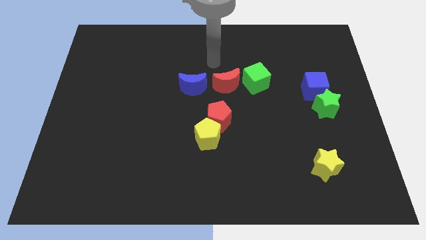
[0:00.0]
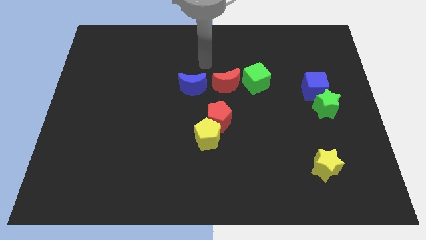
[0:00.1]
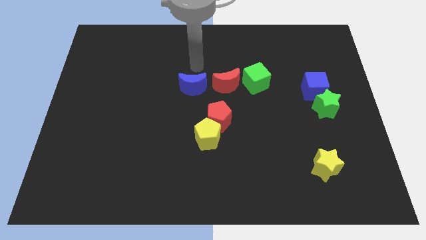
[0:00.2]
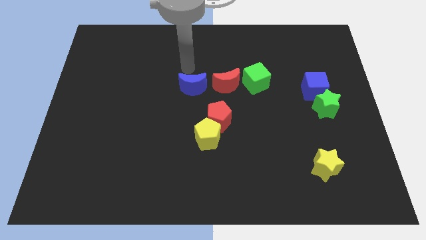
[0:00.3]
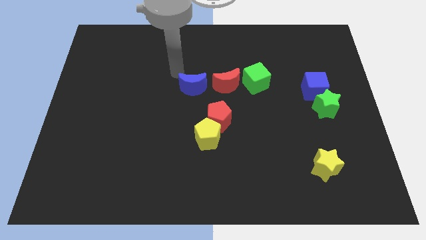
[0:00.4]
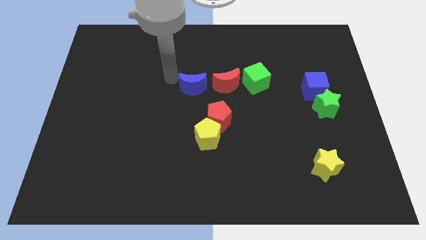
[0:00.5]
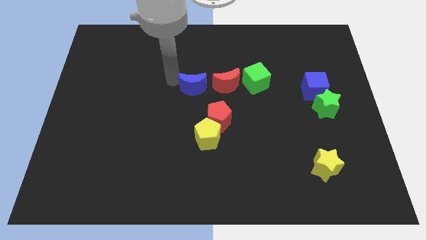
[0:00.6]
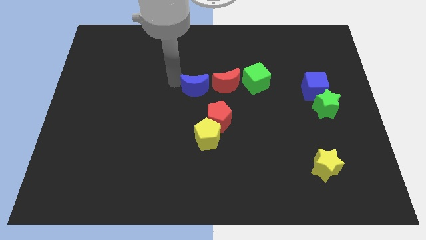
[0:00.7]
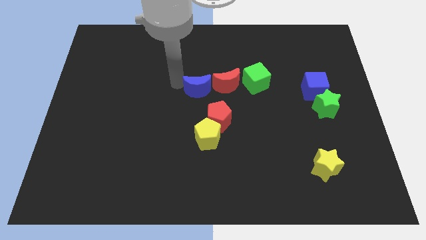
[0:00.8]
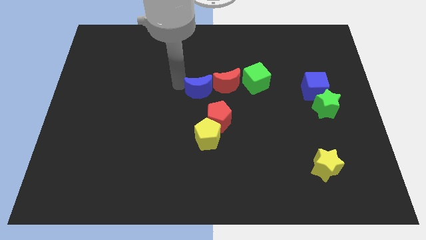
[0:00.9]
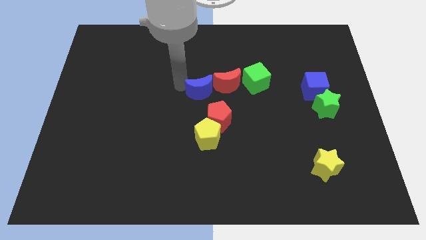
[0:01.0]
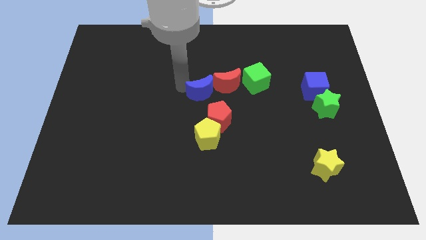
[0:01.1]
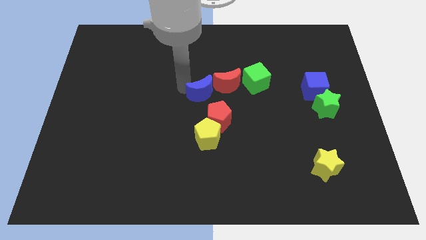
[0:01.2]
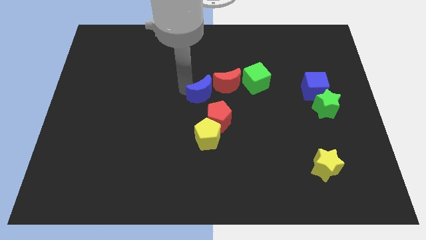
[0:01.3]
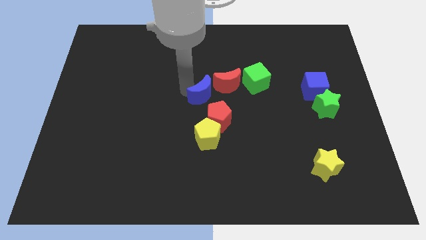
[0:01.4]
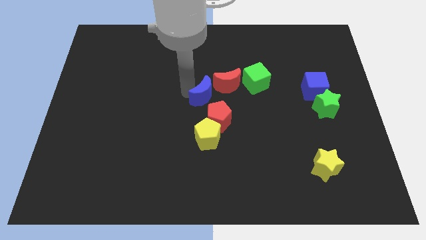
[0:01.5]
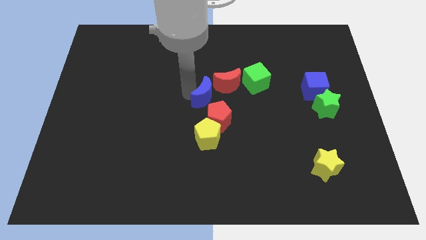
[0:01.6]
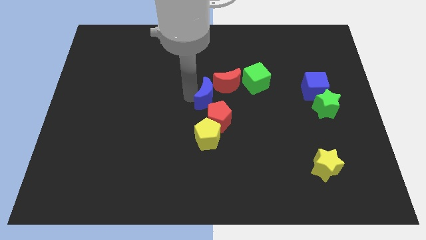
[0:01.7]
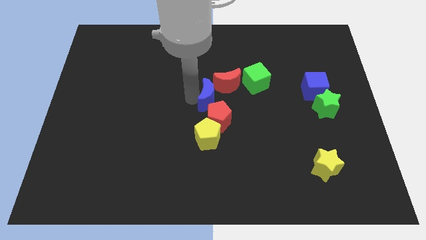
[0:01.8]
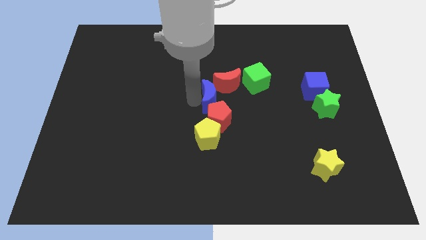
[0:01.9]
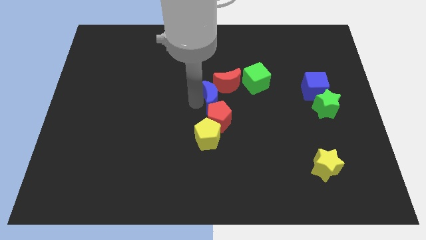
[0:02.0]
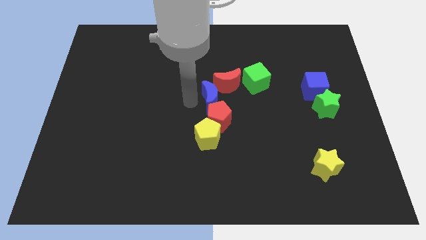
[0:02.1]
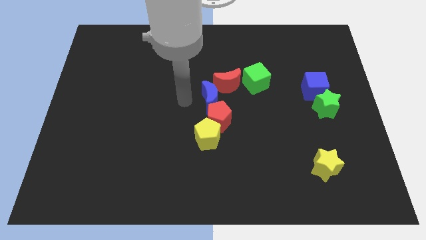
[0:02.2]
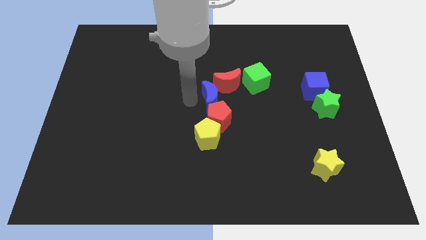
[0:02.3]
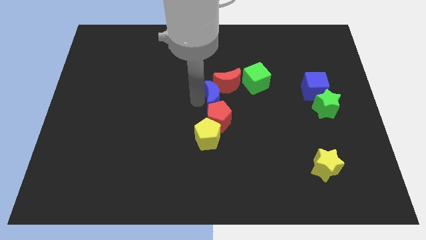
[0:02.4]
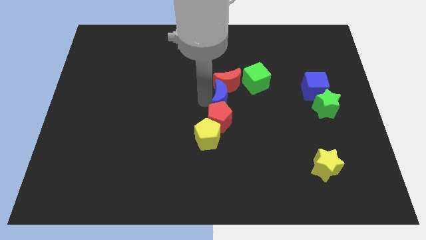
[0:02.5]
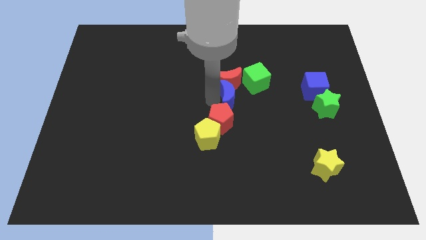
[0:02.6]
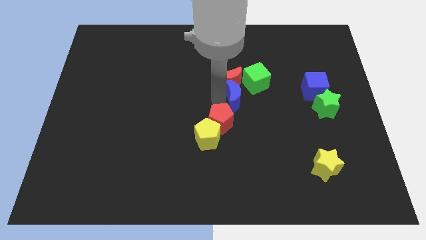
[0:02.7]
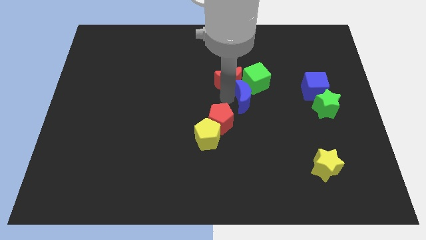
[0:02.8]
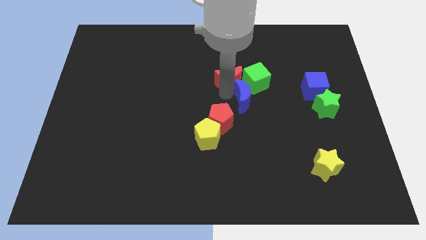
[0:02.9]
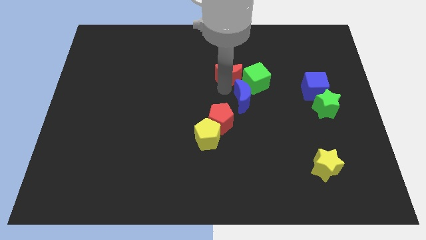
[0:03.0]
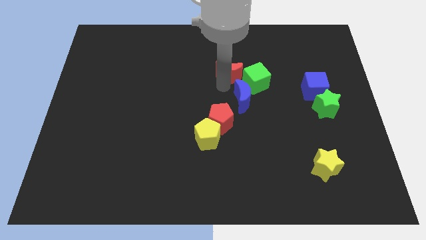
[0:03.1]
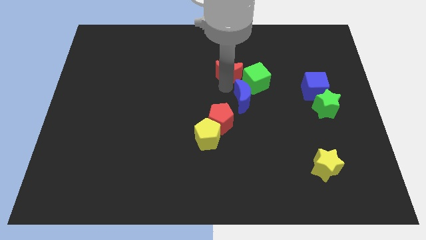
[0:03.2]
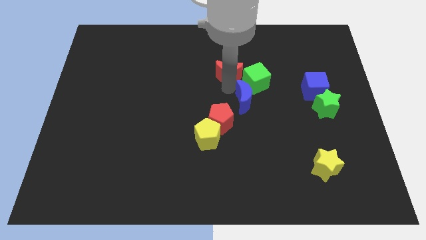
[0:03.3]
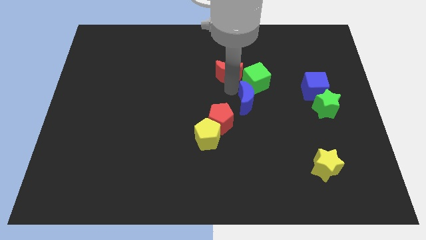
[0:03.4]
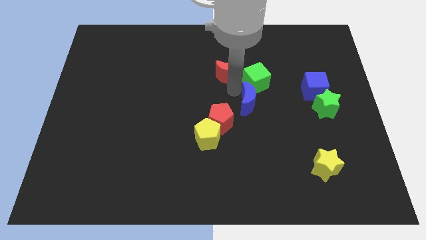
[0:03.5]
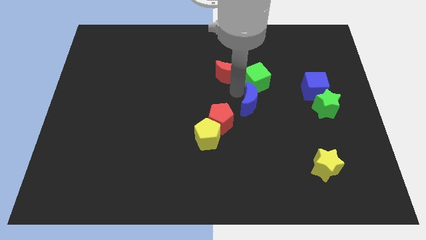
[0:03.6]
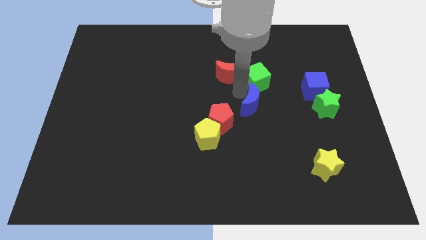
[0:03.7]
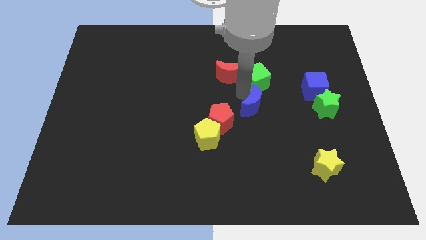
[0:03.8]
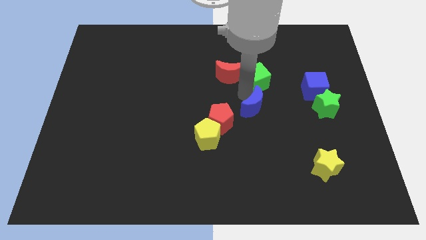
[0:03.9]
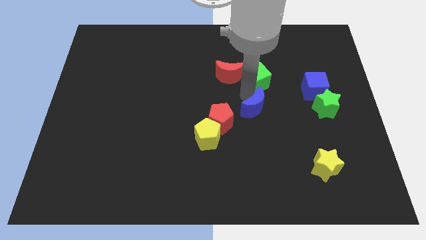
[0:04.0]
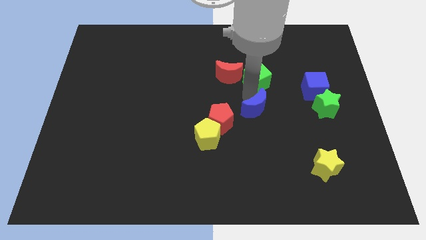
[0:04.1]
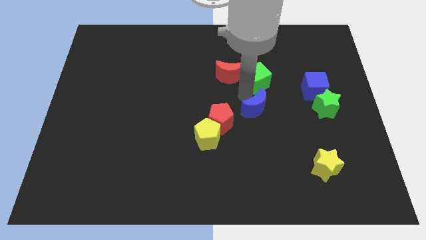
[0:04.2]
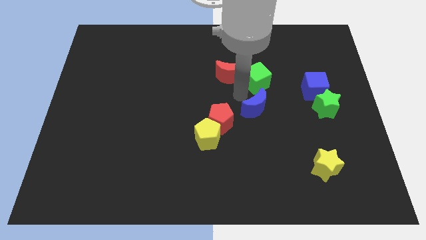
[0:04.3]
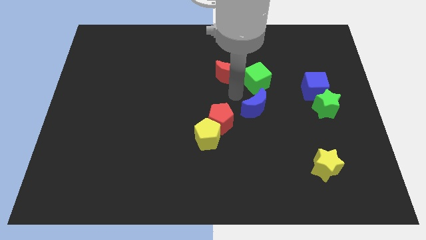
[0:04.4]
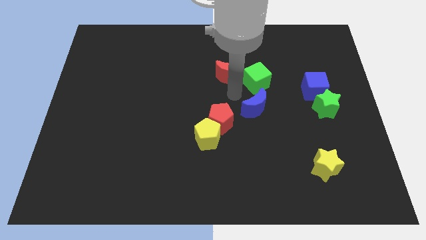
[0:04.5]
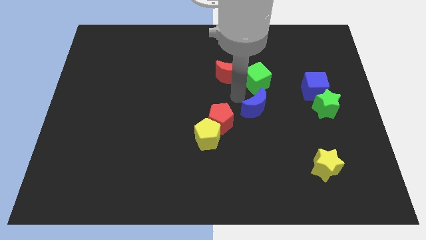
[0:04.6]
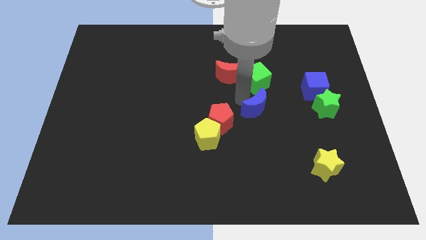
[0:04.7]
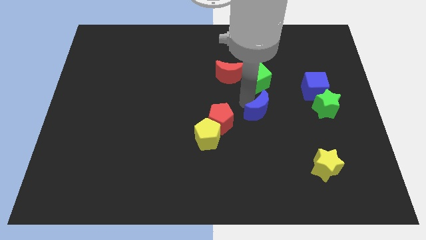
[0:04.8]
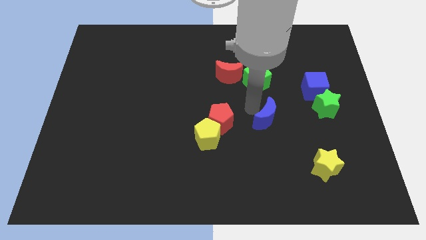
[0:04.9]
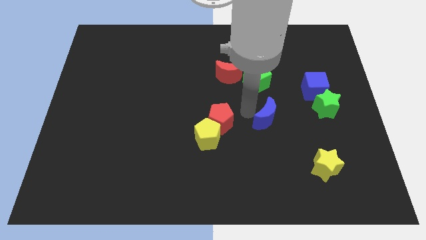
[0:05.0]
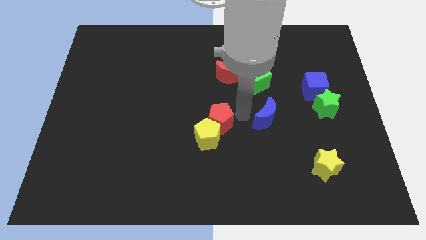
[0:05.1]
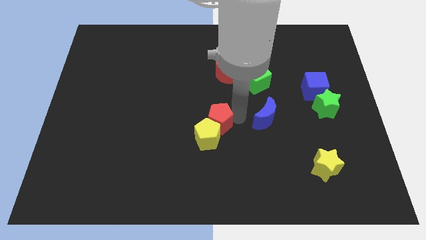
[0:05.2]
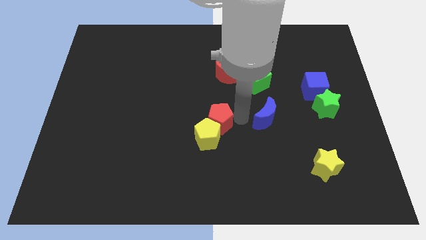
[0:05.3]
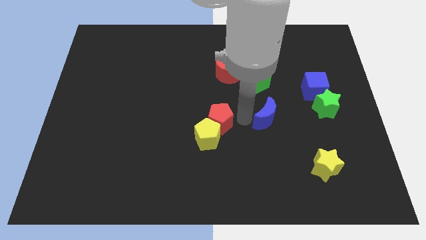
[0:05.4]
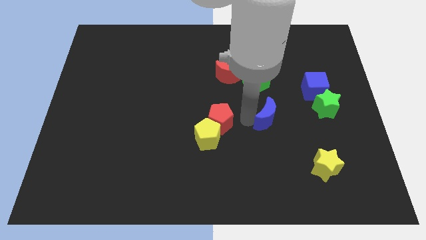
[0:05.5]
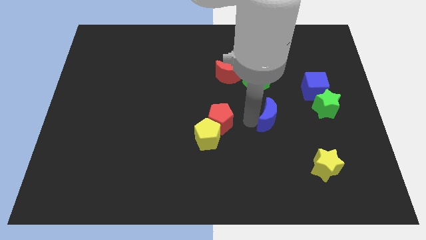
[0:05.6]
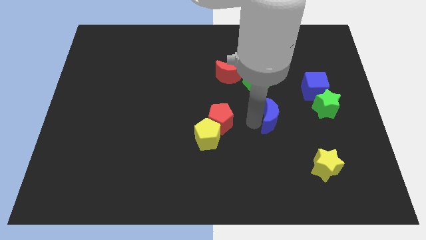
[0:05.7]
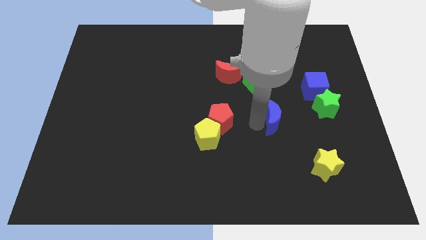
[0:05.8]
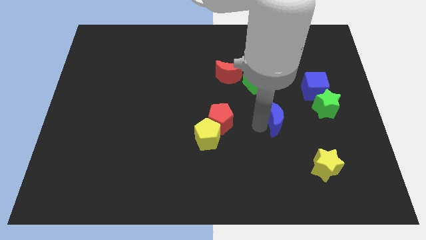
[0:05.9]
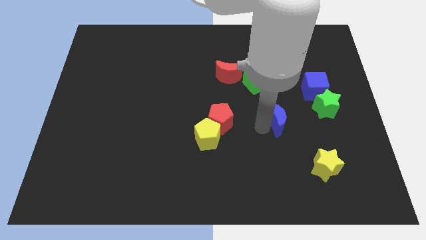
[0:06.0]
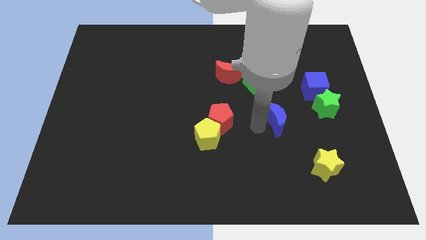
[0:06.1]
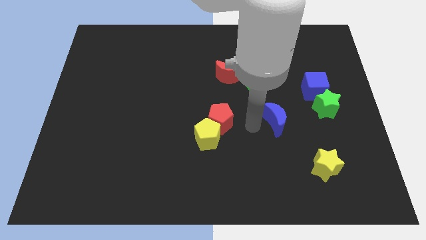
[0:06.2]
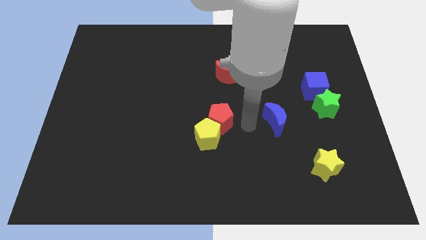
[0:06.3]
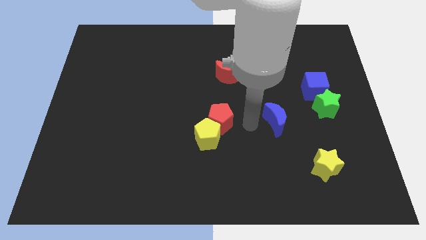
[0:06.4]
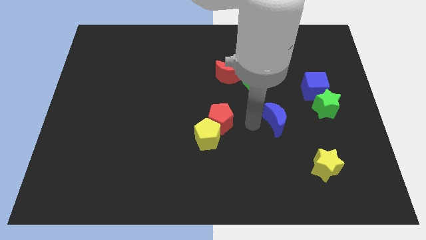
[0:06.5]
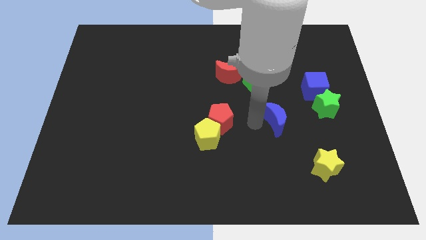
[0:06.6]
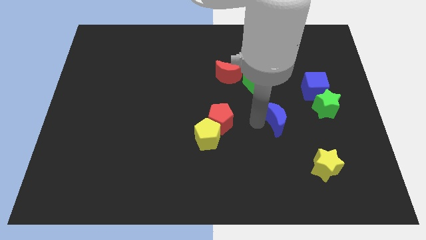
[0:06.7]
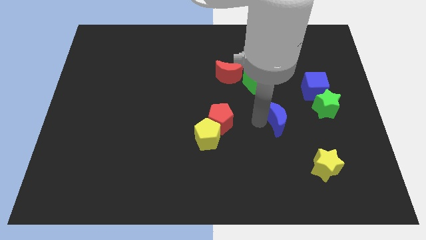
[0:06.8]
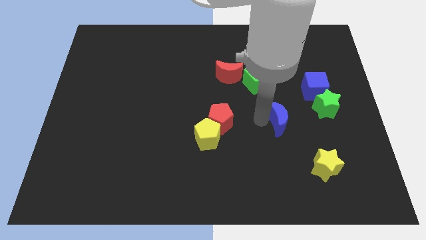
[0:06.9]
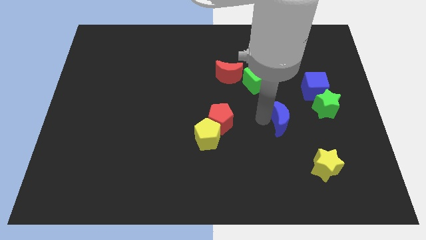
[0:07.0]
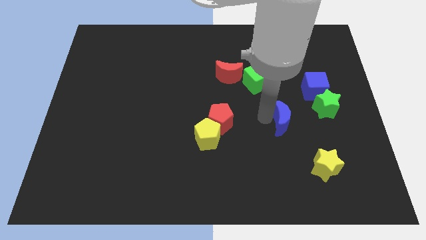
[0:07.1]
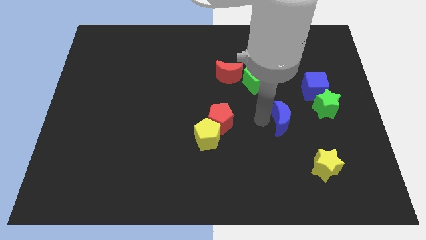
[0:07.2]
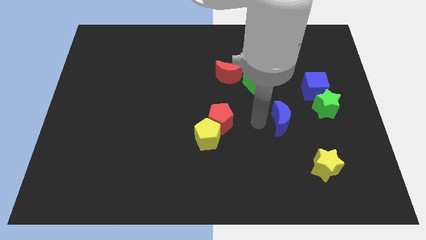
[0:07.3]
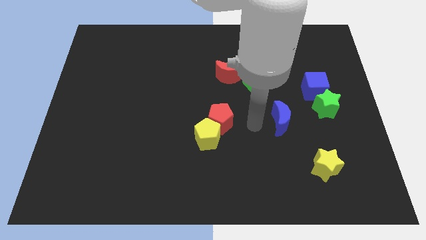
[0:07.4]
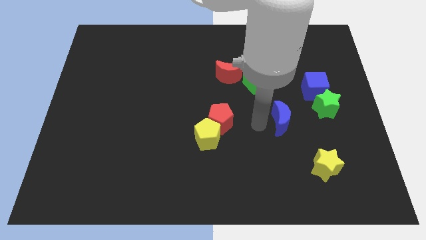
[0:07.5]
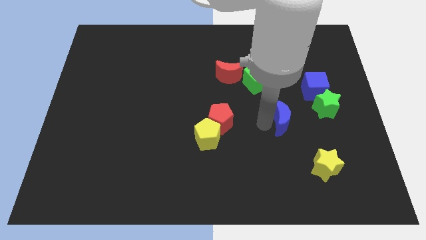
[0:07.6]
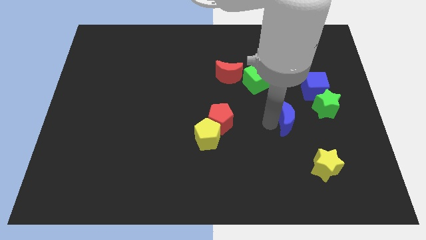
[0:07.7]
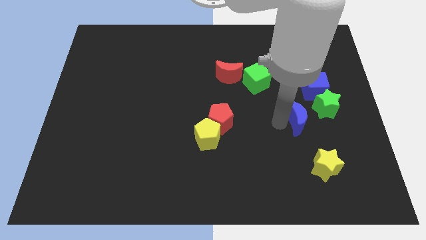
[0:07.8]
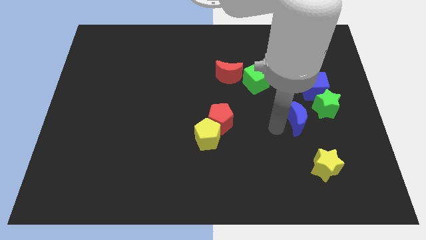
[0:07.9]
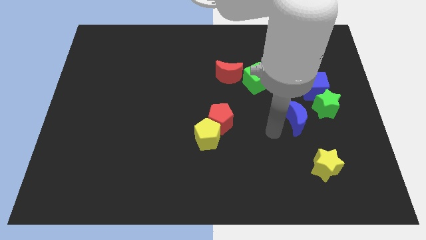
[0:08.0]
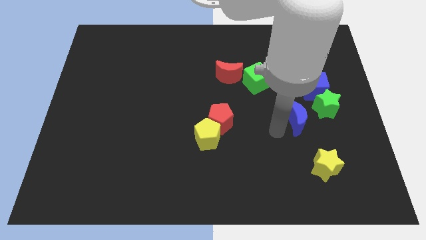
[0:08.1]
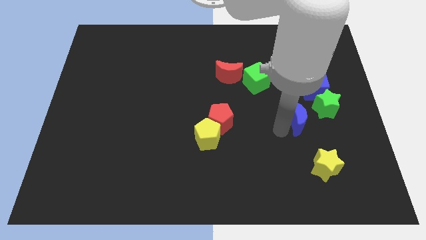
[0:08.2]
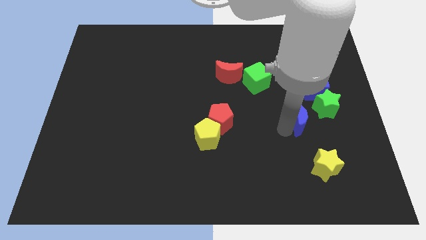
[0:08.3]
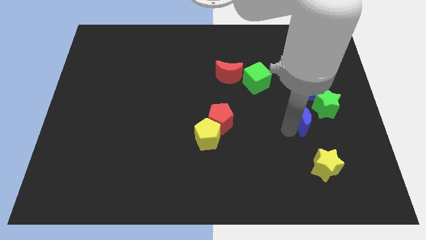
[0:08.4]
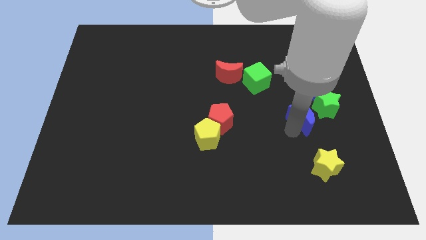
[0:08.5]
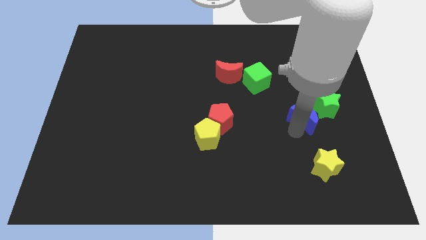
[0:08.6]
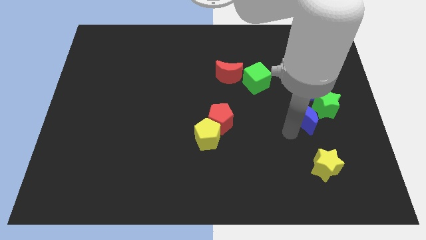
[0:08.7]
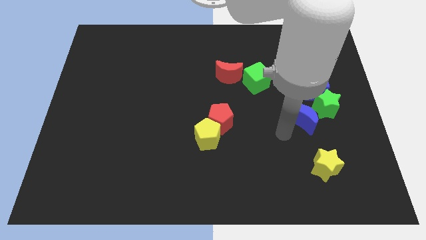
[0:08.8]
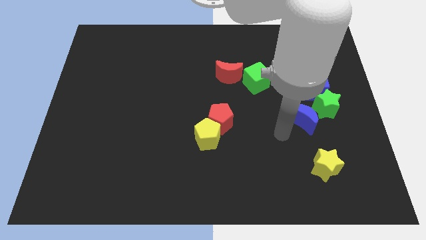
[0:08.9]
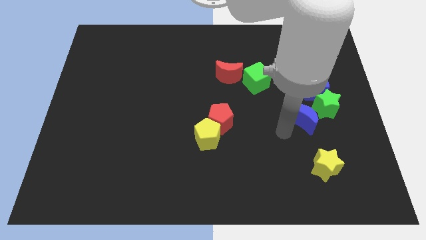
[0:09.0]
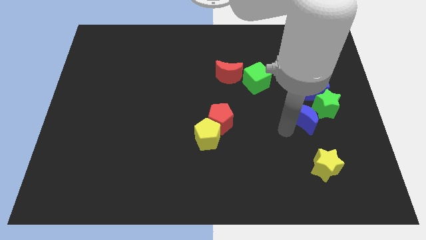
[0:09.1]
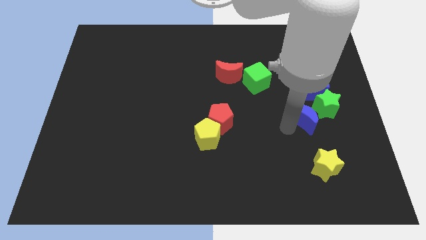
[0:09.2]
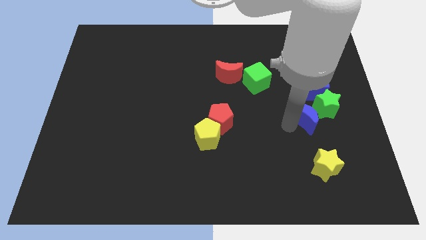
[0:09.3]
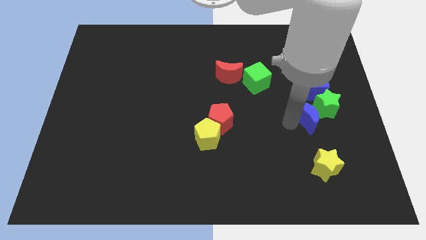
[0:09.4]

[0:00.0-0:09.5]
move the blue moon close to the green star
